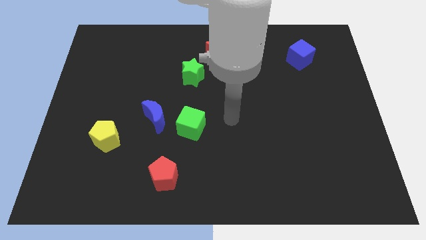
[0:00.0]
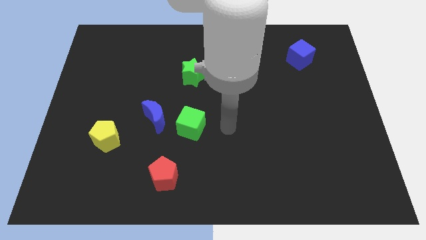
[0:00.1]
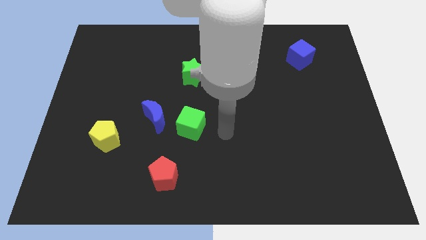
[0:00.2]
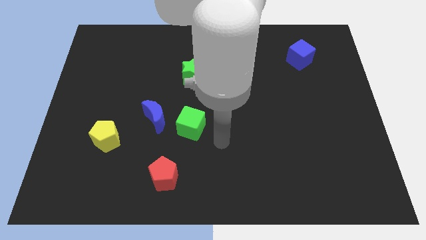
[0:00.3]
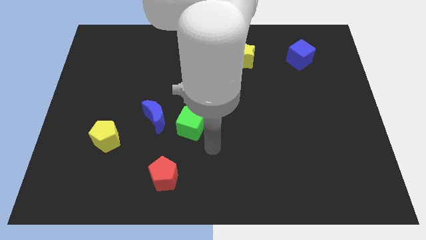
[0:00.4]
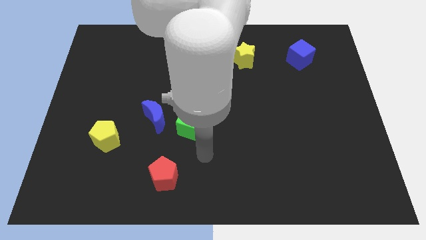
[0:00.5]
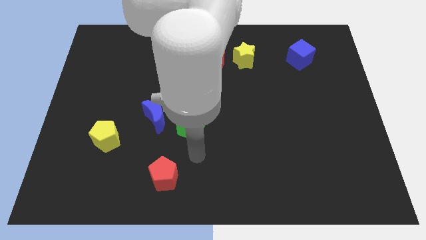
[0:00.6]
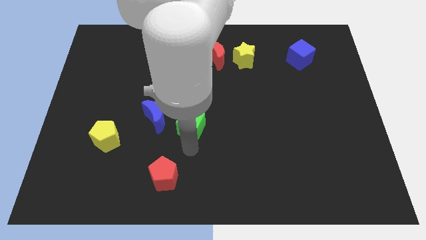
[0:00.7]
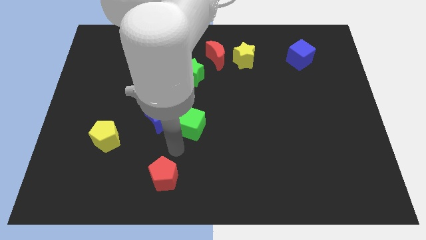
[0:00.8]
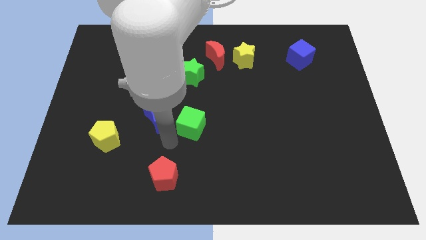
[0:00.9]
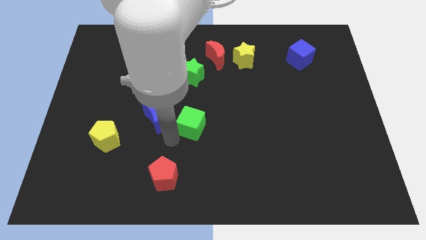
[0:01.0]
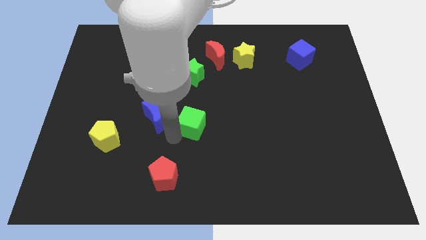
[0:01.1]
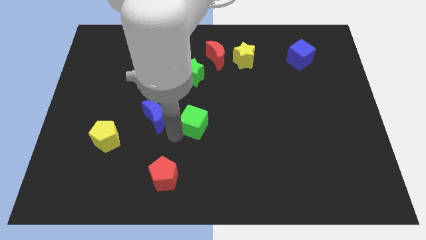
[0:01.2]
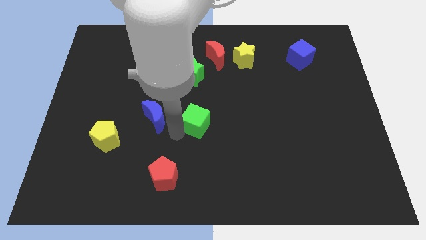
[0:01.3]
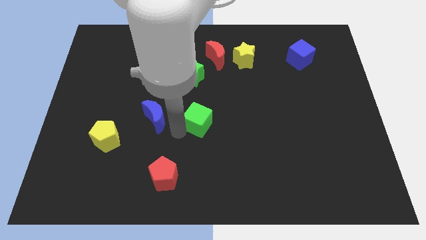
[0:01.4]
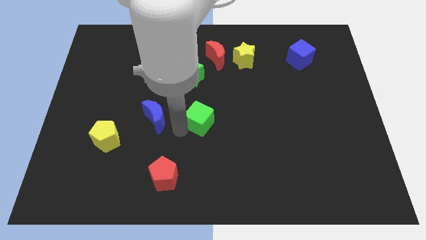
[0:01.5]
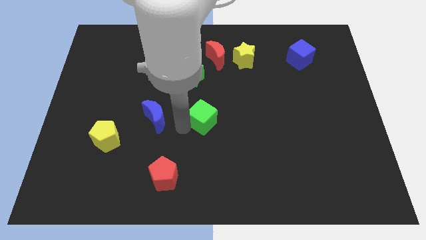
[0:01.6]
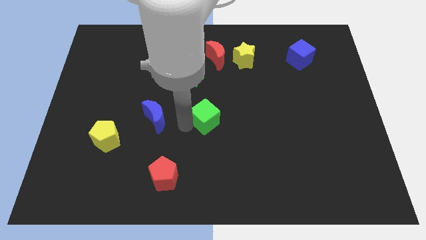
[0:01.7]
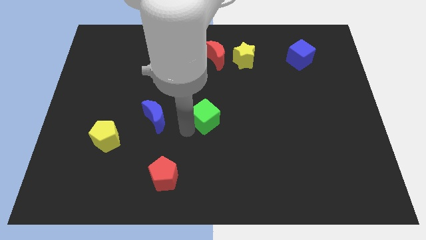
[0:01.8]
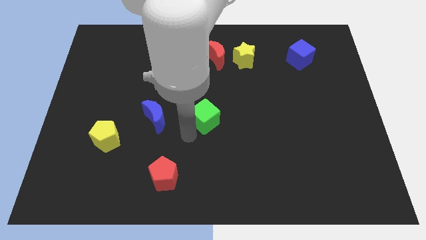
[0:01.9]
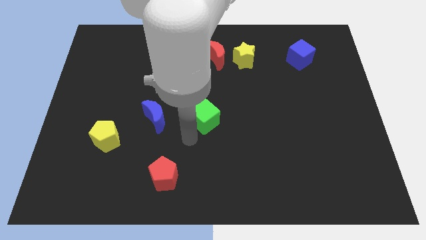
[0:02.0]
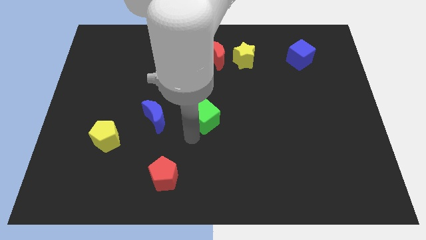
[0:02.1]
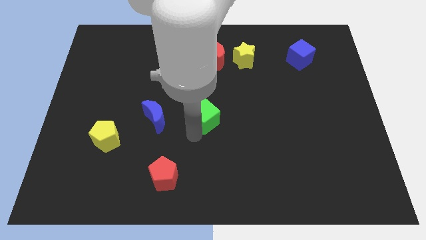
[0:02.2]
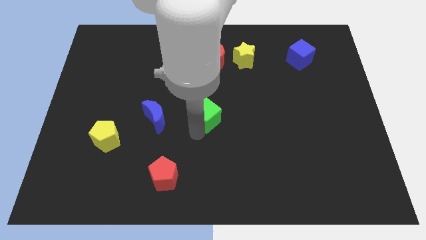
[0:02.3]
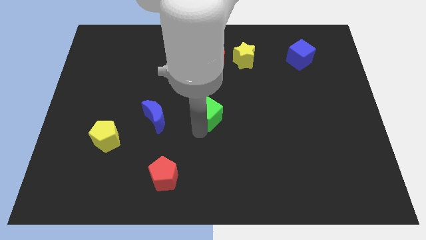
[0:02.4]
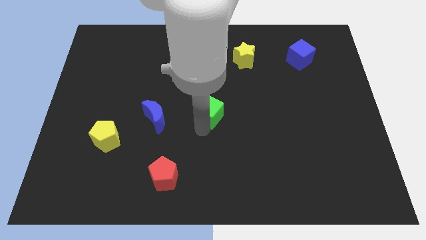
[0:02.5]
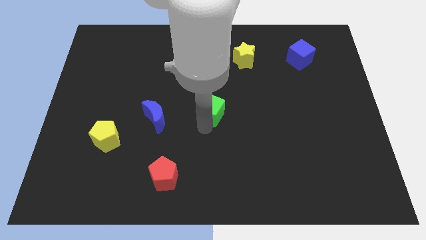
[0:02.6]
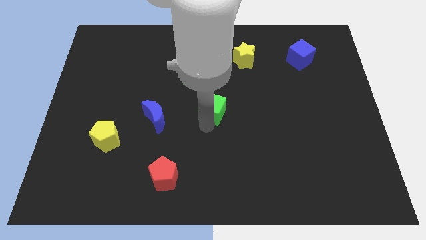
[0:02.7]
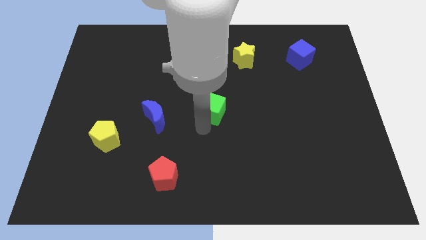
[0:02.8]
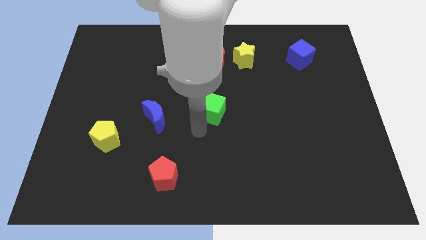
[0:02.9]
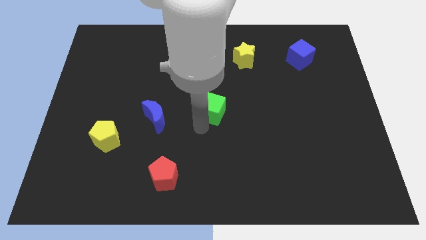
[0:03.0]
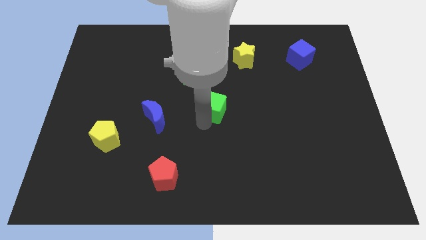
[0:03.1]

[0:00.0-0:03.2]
move the green cube up and to the right a little

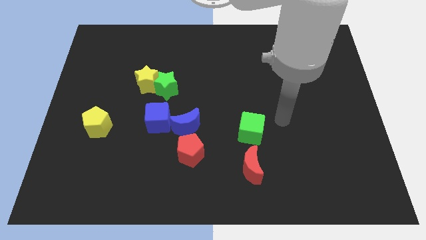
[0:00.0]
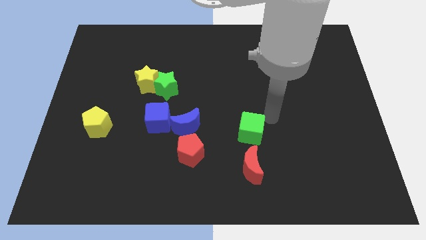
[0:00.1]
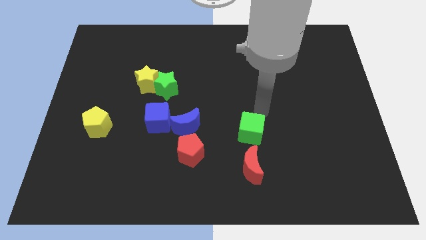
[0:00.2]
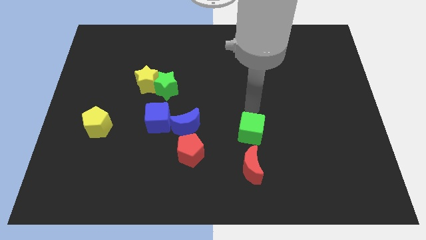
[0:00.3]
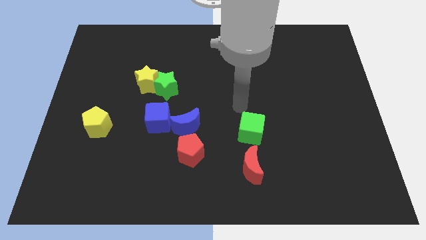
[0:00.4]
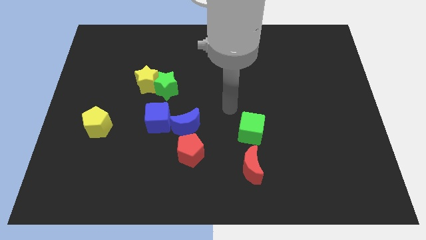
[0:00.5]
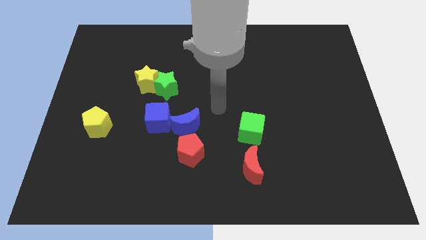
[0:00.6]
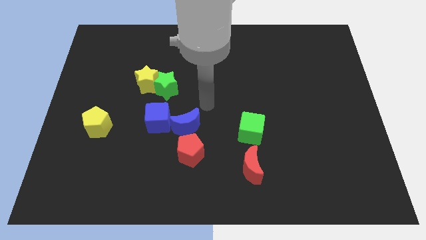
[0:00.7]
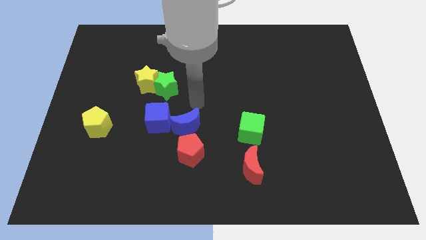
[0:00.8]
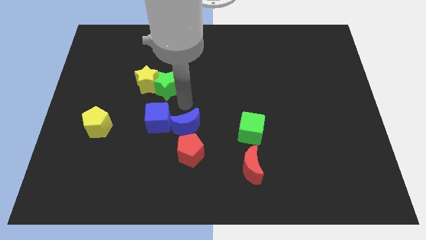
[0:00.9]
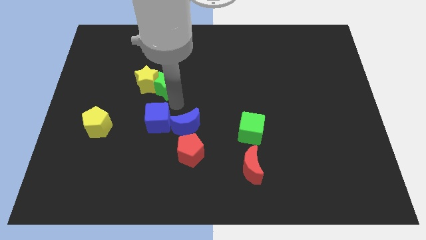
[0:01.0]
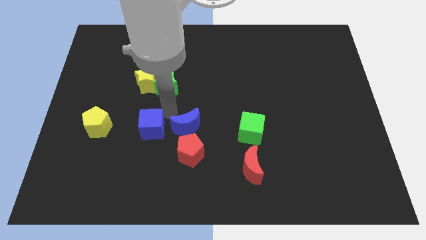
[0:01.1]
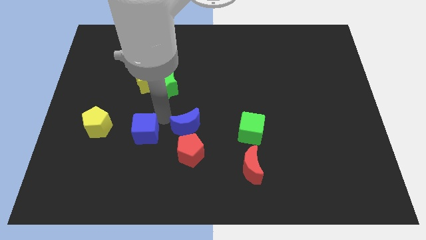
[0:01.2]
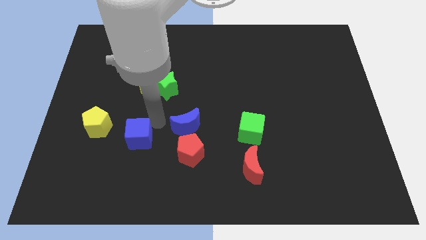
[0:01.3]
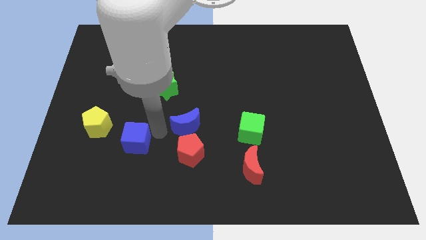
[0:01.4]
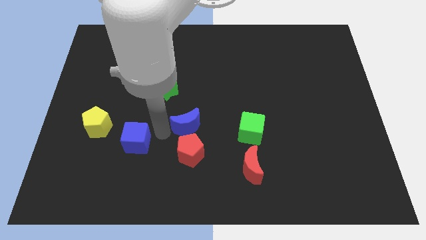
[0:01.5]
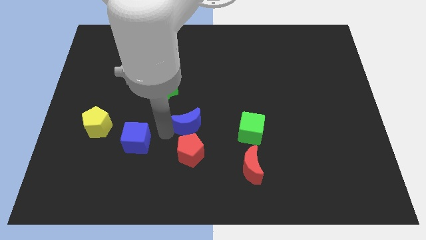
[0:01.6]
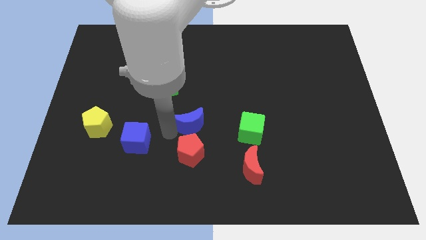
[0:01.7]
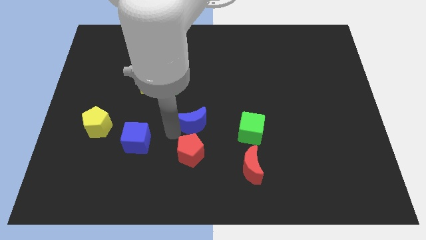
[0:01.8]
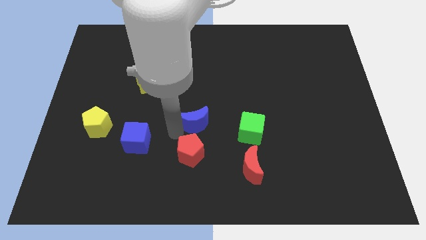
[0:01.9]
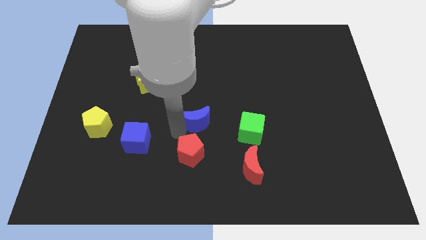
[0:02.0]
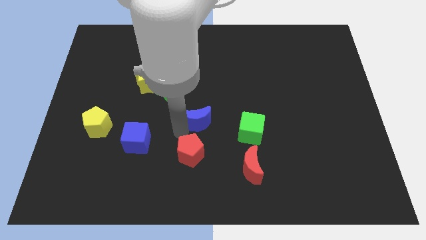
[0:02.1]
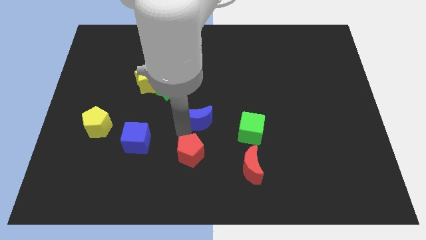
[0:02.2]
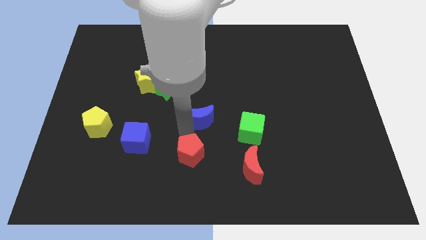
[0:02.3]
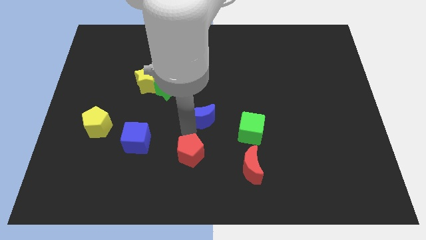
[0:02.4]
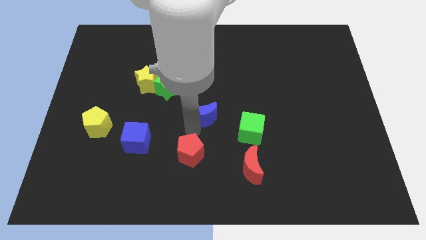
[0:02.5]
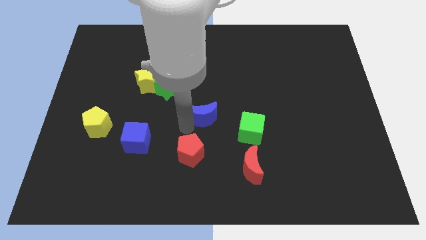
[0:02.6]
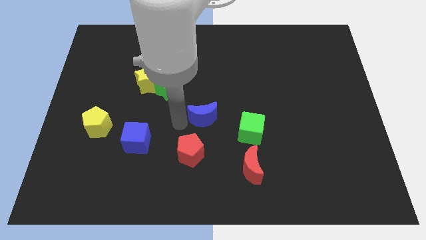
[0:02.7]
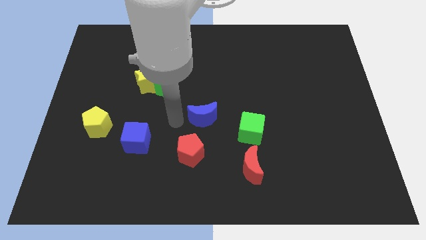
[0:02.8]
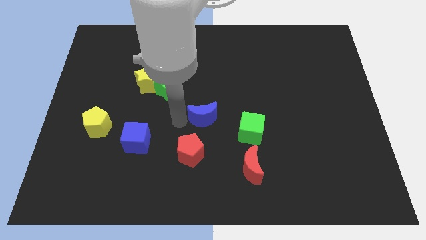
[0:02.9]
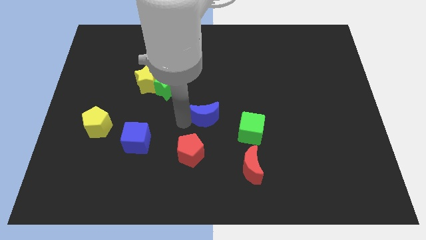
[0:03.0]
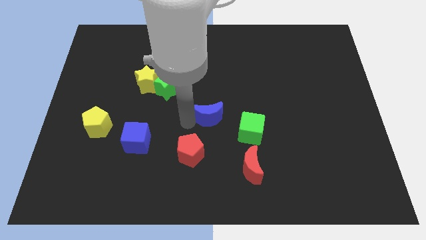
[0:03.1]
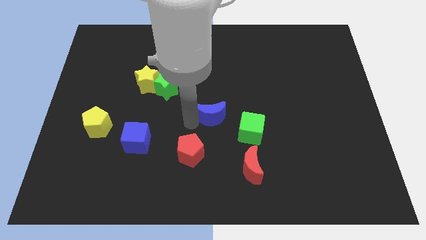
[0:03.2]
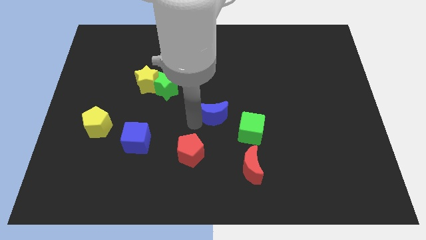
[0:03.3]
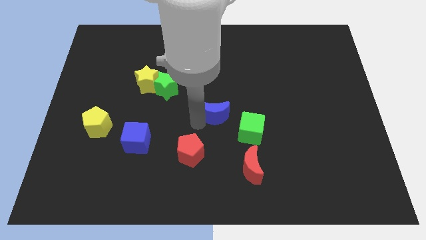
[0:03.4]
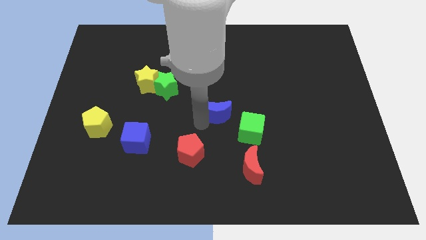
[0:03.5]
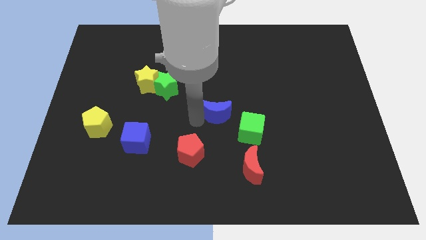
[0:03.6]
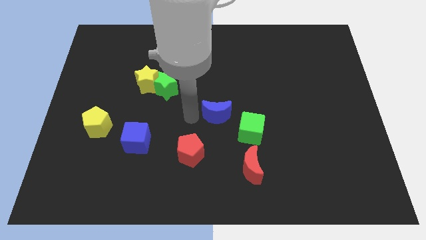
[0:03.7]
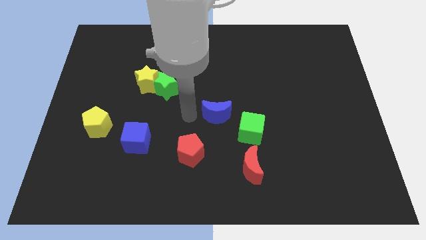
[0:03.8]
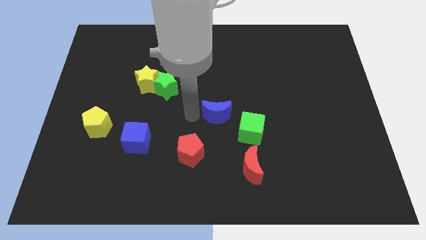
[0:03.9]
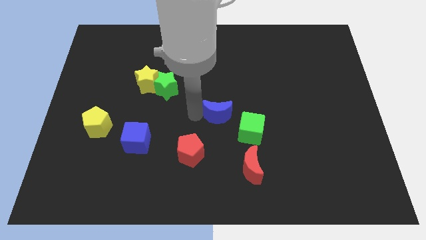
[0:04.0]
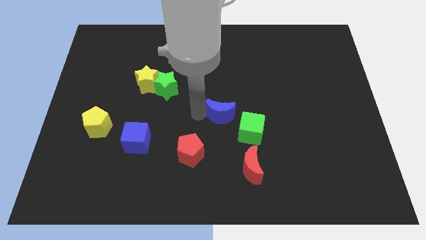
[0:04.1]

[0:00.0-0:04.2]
push the blue moon somewhat to the right

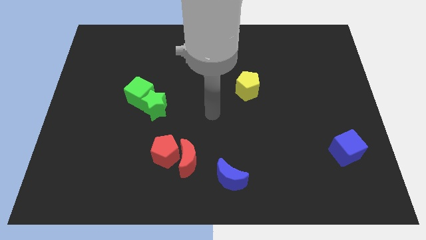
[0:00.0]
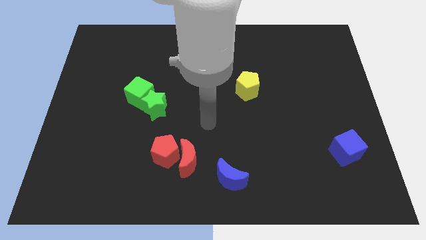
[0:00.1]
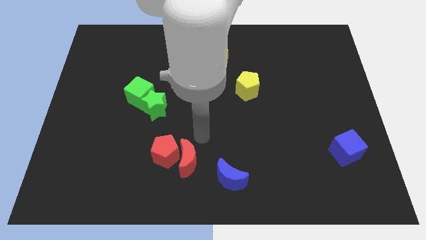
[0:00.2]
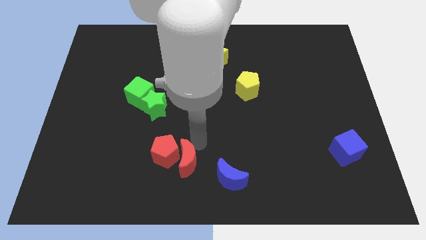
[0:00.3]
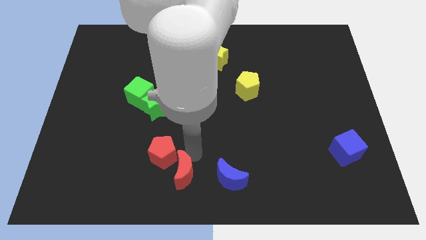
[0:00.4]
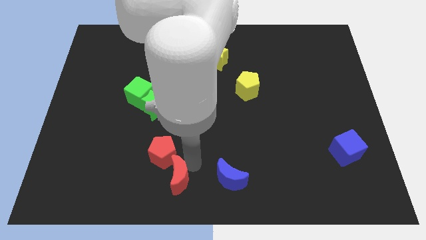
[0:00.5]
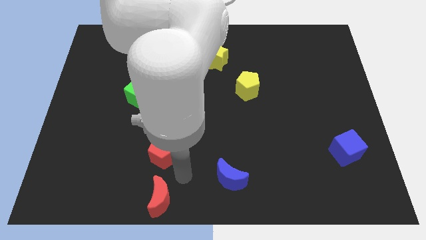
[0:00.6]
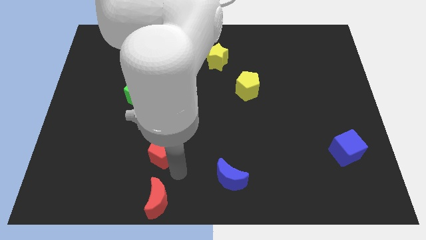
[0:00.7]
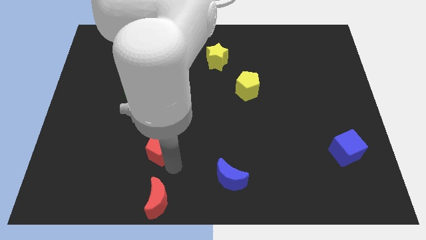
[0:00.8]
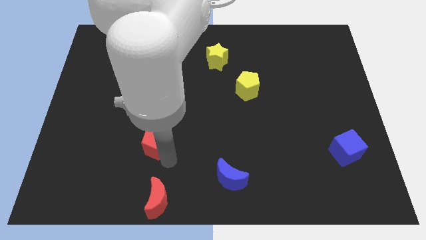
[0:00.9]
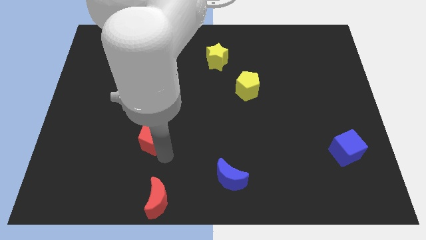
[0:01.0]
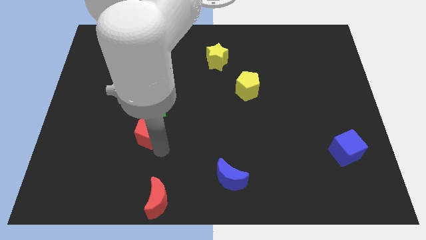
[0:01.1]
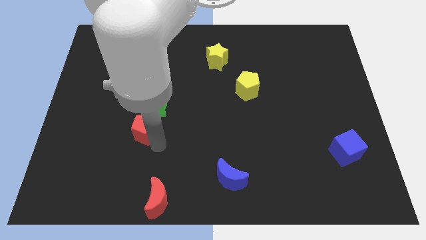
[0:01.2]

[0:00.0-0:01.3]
slide the red pentagon somewhat up and left diagonally
